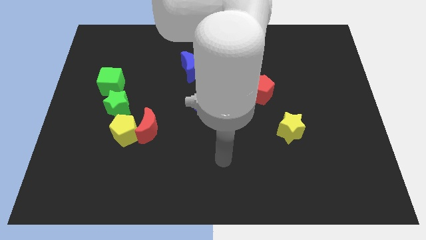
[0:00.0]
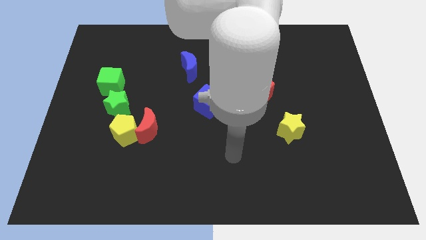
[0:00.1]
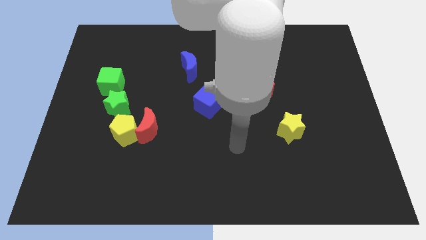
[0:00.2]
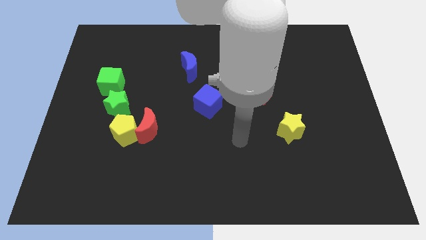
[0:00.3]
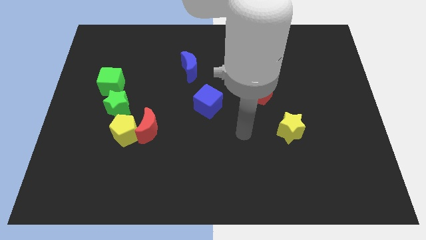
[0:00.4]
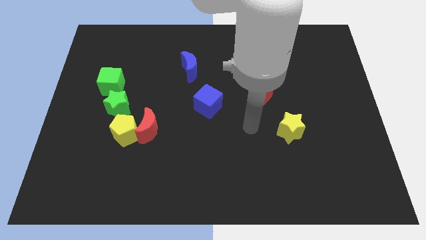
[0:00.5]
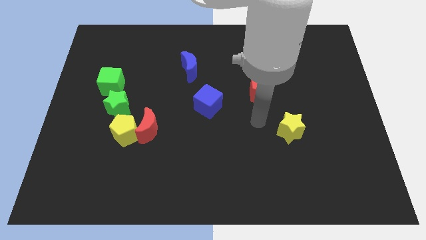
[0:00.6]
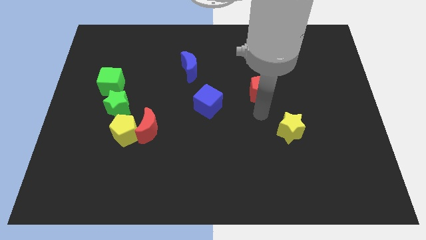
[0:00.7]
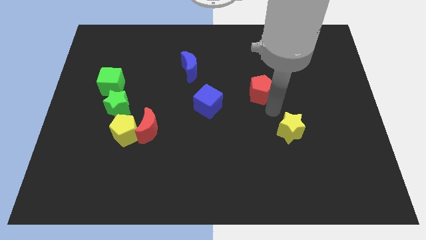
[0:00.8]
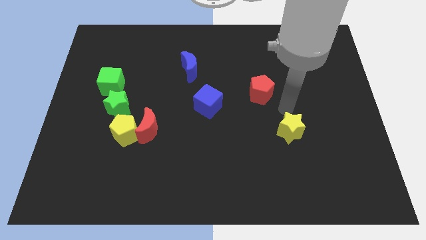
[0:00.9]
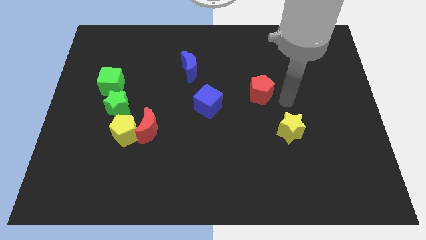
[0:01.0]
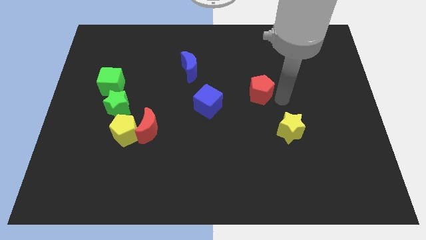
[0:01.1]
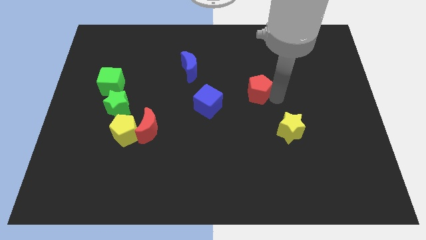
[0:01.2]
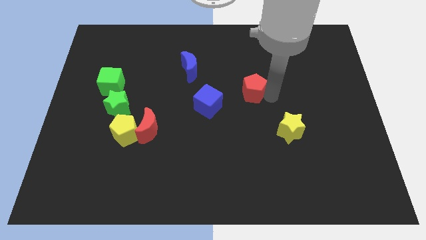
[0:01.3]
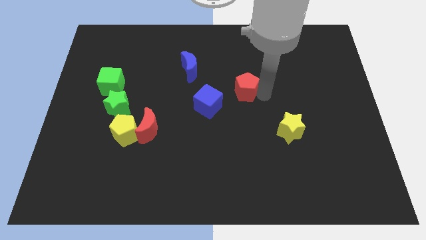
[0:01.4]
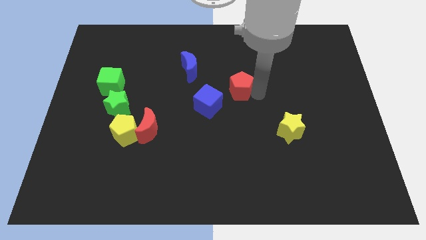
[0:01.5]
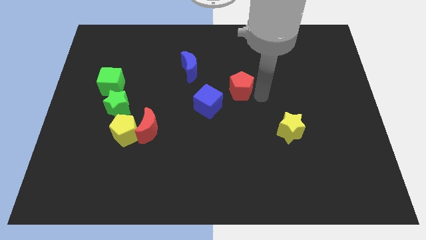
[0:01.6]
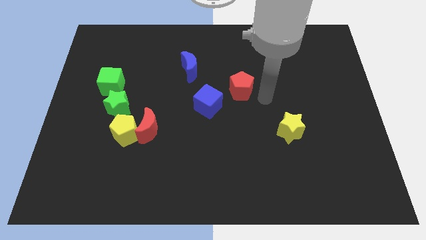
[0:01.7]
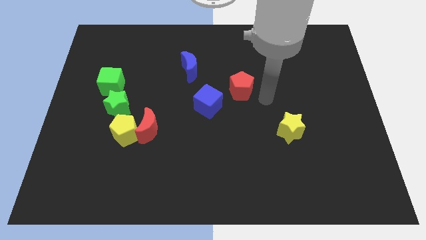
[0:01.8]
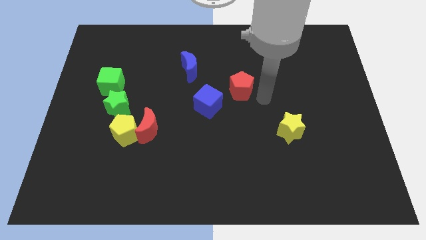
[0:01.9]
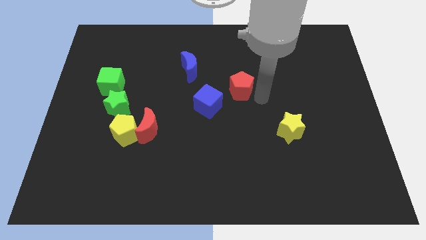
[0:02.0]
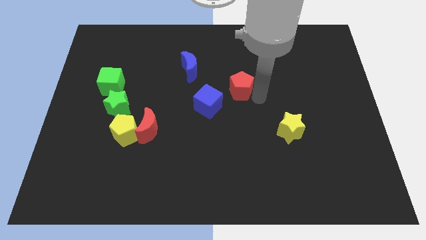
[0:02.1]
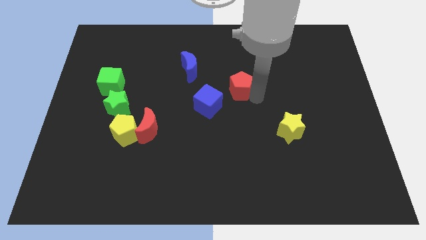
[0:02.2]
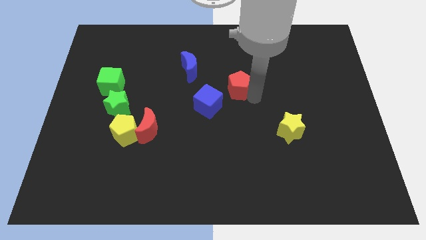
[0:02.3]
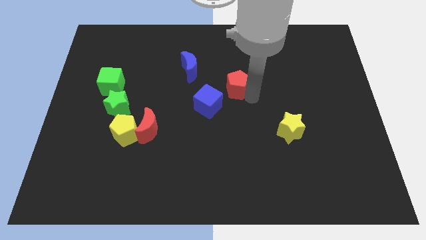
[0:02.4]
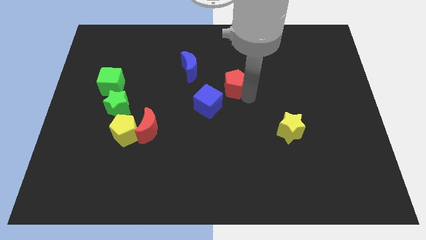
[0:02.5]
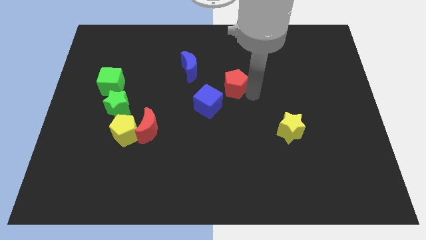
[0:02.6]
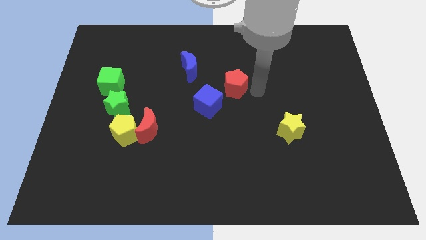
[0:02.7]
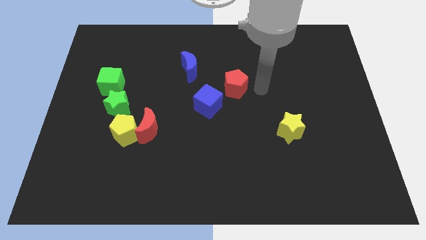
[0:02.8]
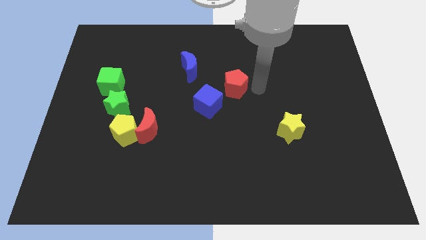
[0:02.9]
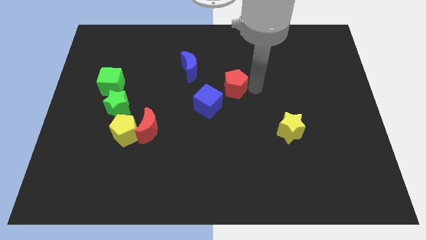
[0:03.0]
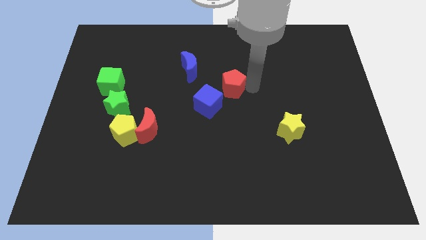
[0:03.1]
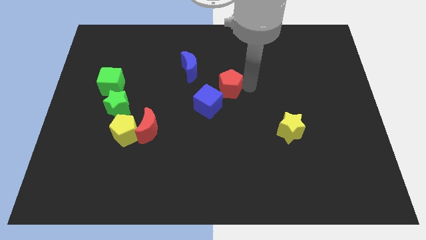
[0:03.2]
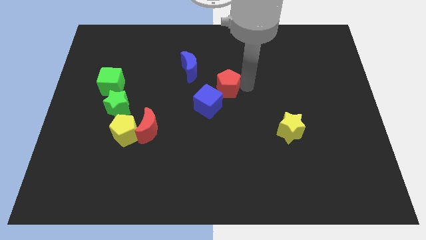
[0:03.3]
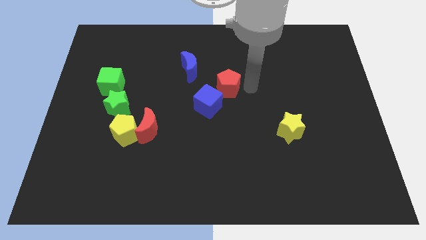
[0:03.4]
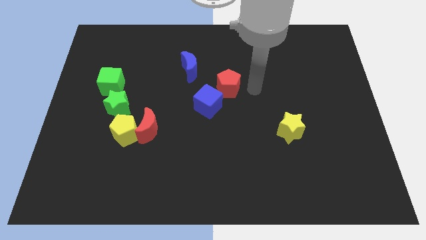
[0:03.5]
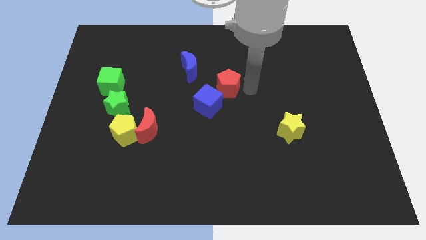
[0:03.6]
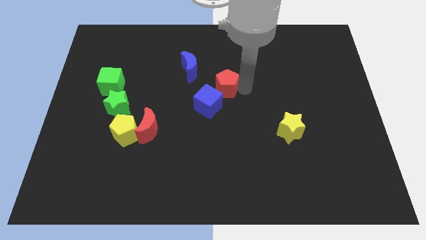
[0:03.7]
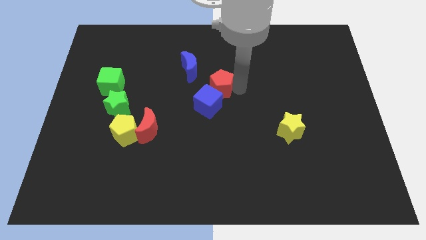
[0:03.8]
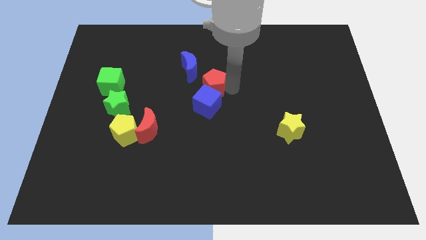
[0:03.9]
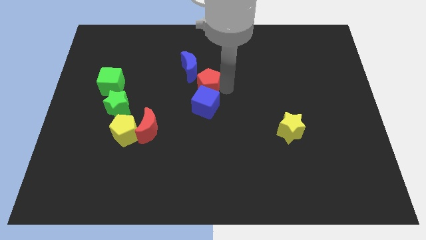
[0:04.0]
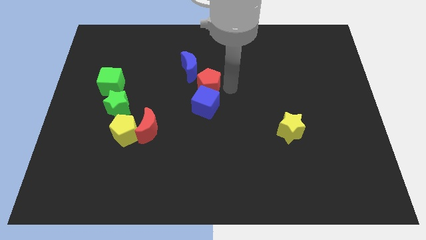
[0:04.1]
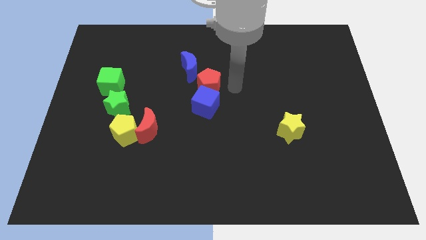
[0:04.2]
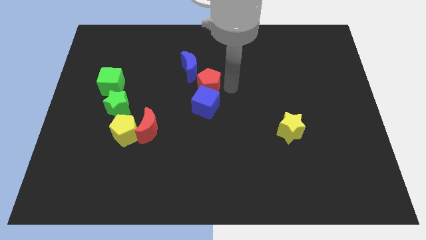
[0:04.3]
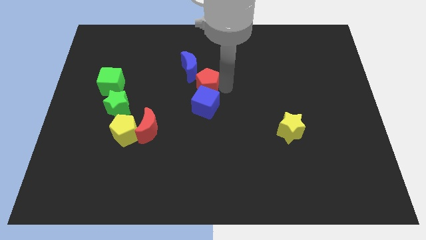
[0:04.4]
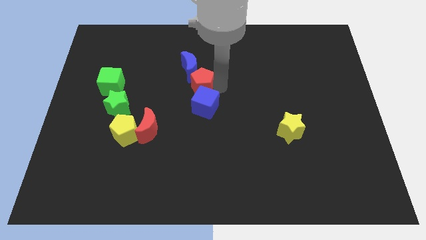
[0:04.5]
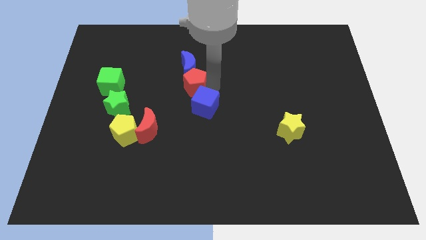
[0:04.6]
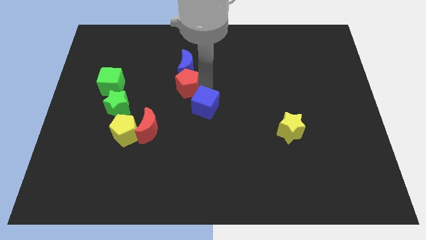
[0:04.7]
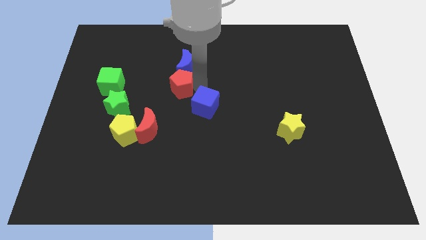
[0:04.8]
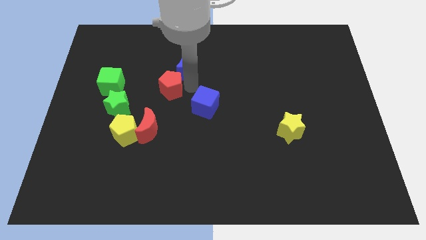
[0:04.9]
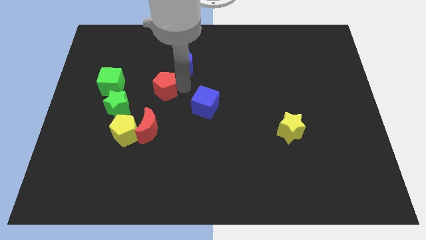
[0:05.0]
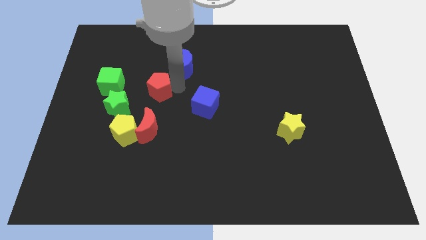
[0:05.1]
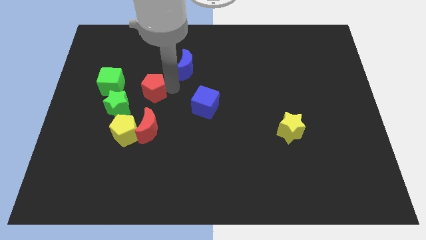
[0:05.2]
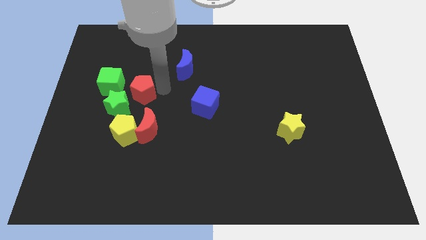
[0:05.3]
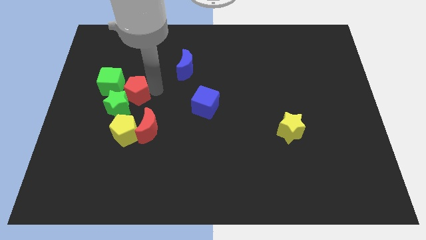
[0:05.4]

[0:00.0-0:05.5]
move the red pentagon next to the green star

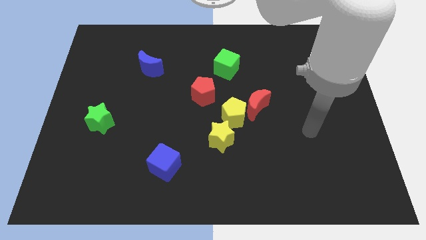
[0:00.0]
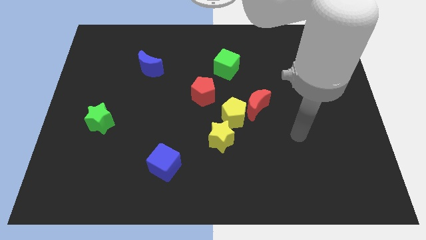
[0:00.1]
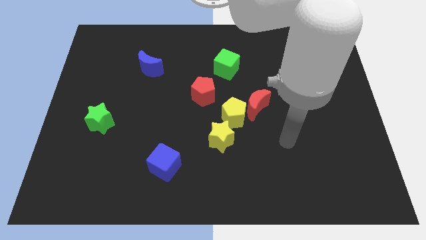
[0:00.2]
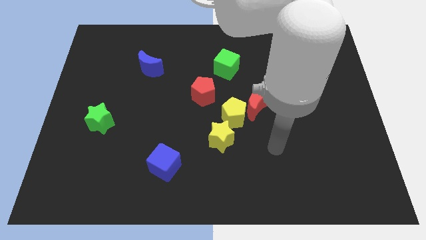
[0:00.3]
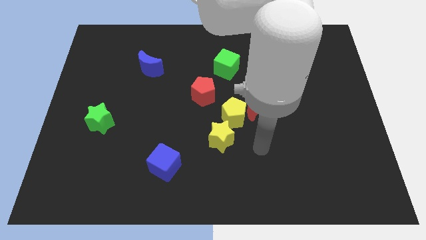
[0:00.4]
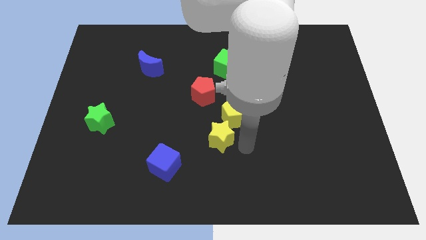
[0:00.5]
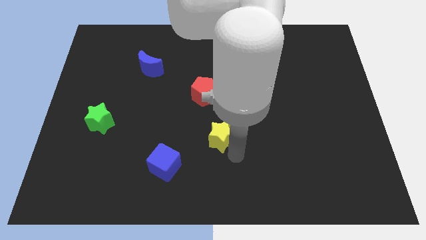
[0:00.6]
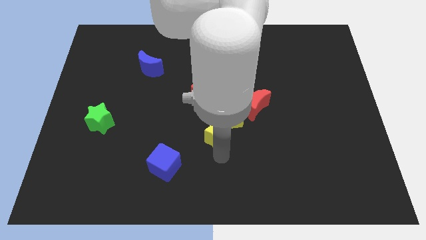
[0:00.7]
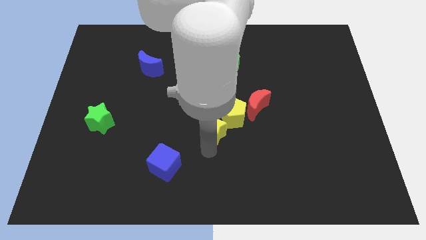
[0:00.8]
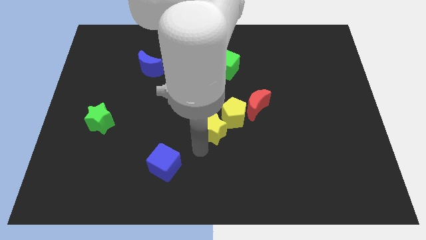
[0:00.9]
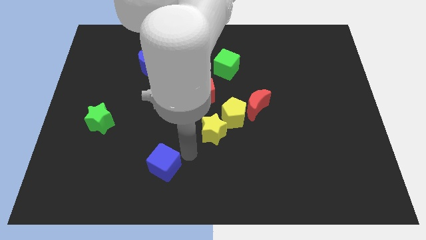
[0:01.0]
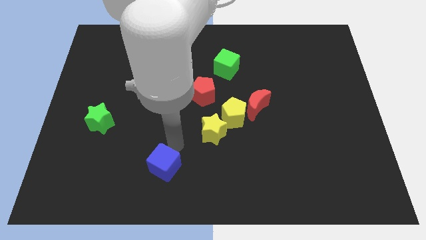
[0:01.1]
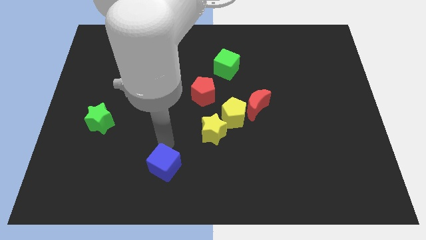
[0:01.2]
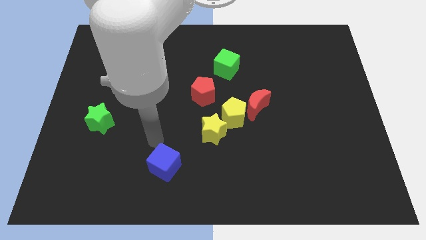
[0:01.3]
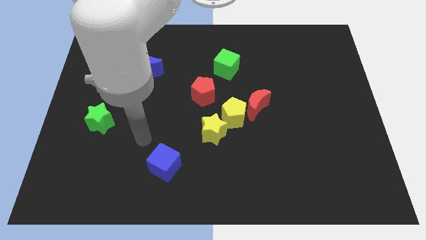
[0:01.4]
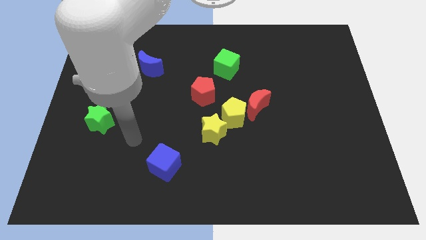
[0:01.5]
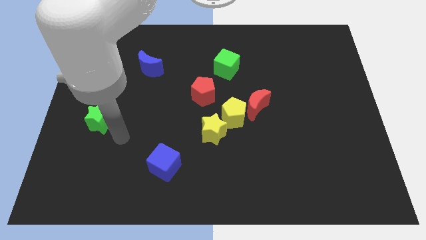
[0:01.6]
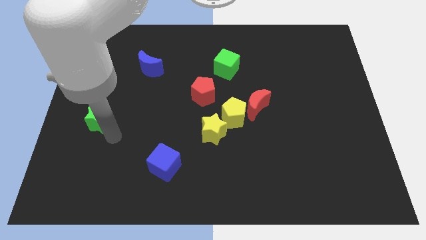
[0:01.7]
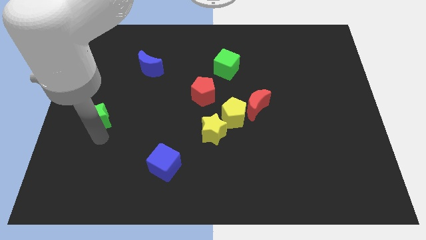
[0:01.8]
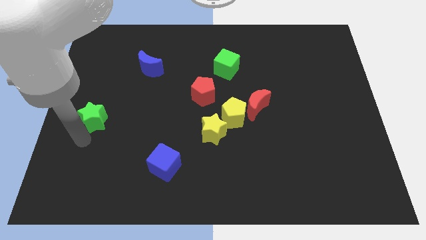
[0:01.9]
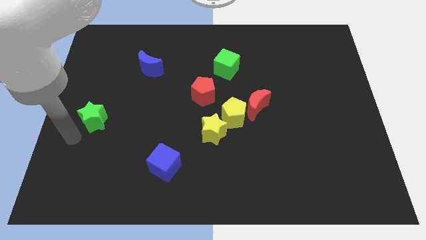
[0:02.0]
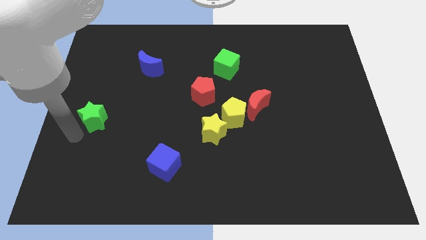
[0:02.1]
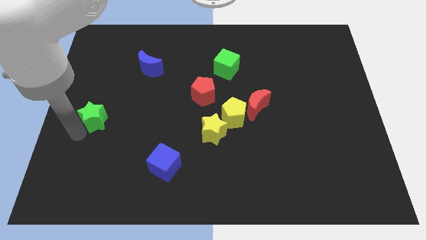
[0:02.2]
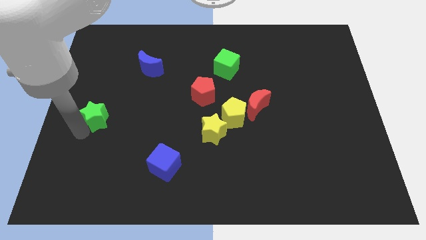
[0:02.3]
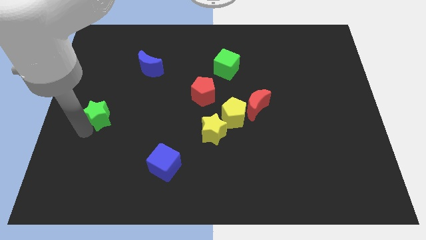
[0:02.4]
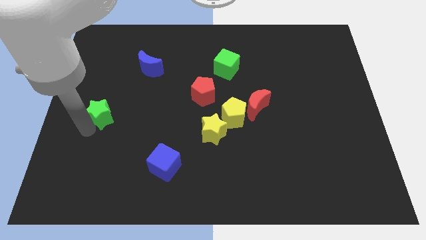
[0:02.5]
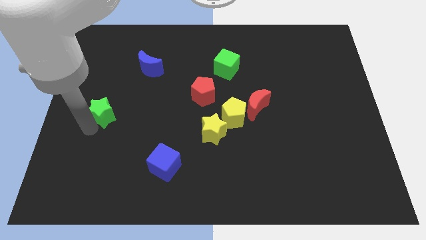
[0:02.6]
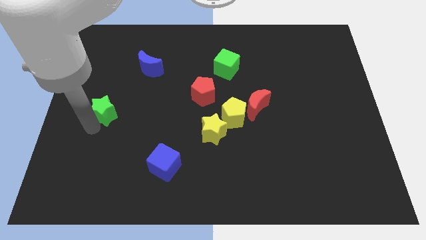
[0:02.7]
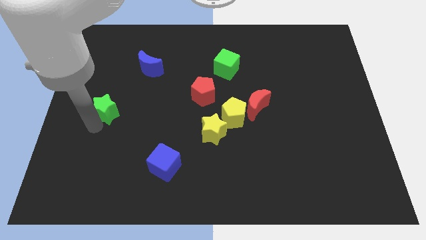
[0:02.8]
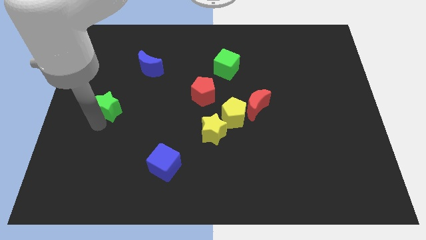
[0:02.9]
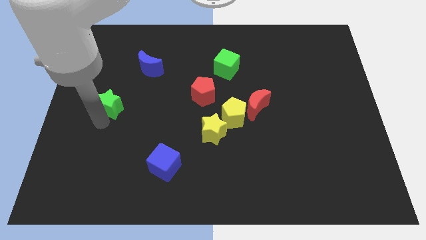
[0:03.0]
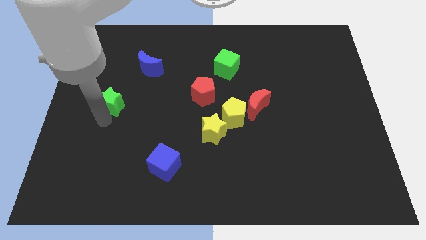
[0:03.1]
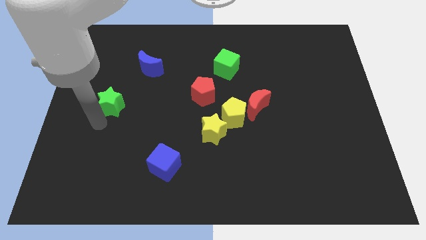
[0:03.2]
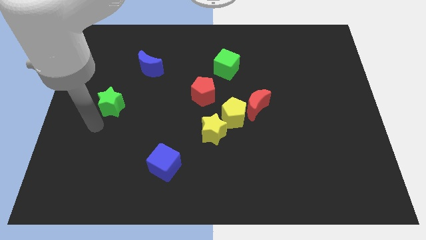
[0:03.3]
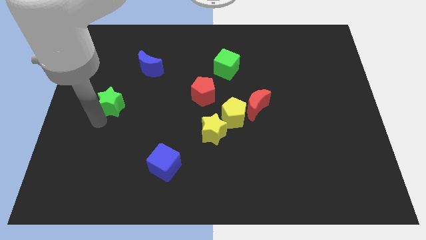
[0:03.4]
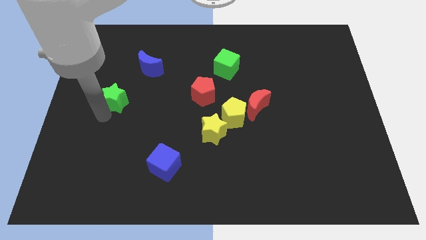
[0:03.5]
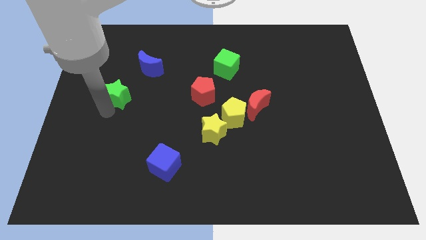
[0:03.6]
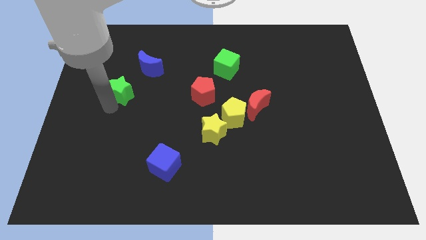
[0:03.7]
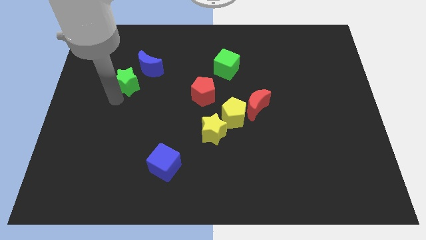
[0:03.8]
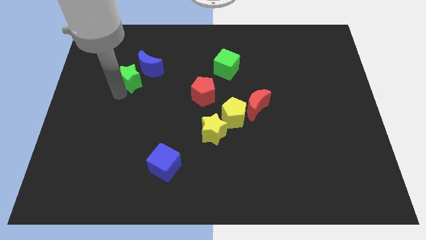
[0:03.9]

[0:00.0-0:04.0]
move the green star towards the blue moon
